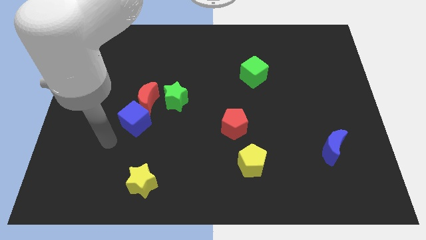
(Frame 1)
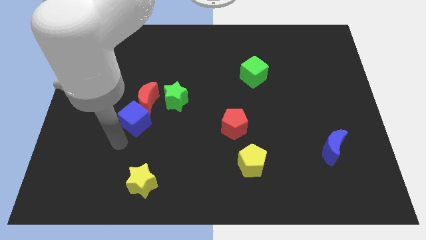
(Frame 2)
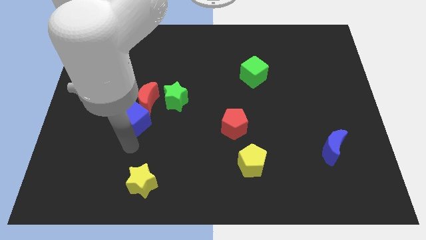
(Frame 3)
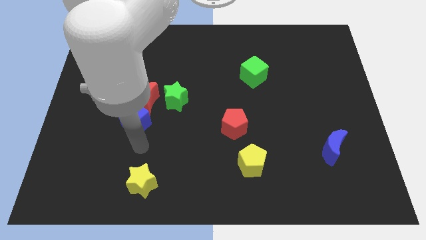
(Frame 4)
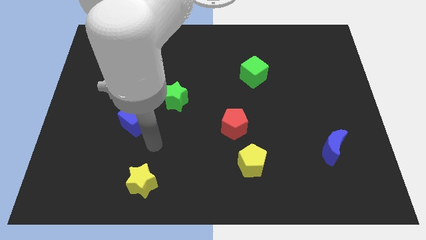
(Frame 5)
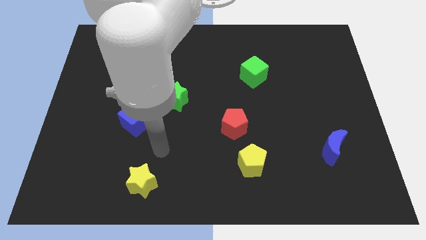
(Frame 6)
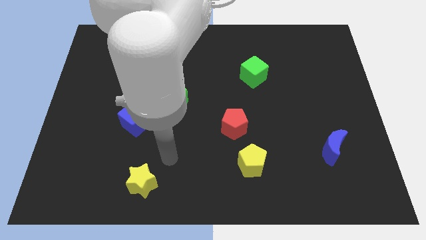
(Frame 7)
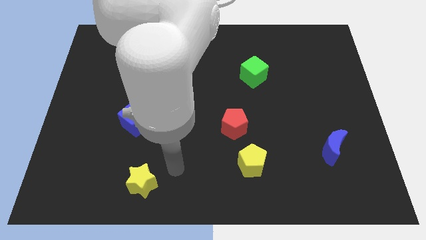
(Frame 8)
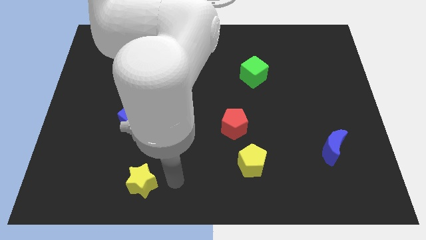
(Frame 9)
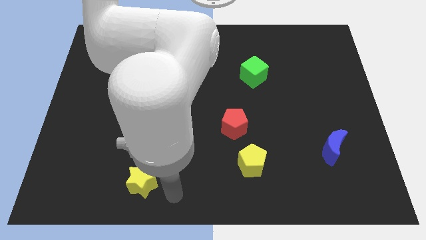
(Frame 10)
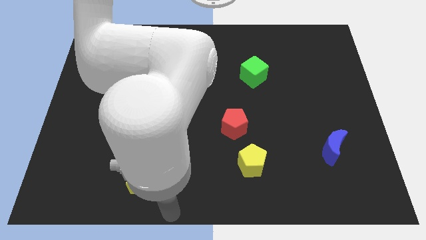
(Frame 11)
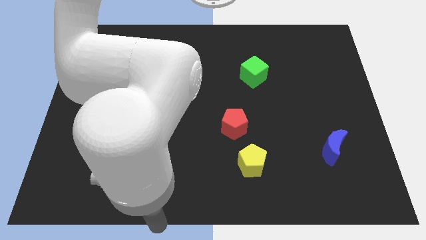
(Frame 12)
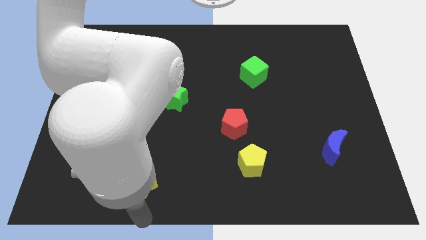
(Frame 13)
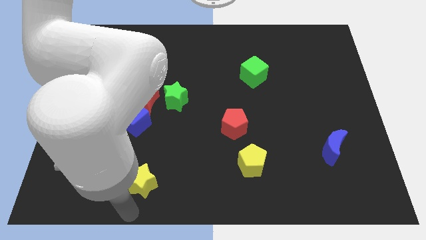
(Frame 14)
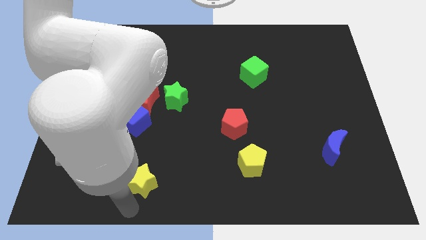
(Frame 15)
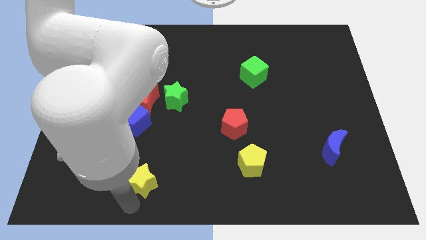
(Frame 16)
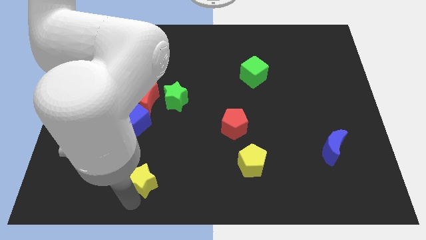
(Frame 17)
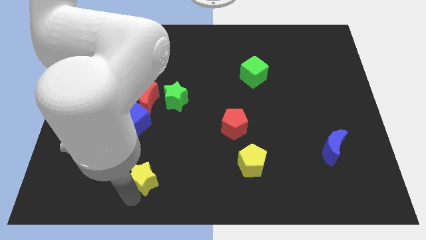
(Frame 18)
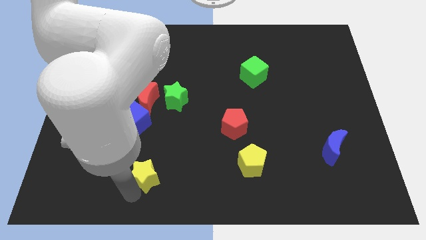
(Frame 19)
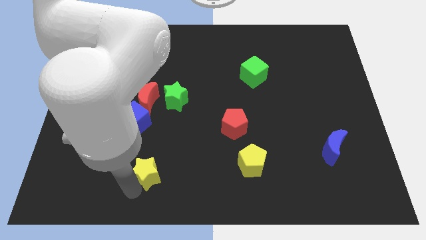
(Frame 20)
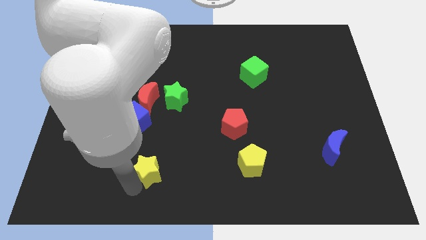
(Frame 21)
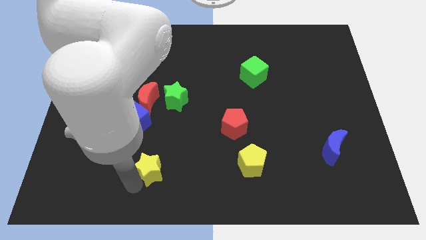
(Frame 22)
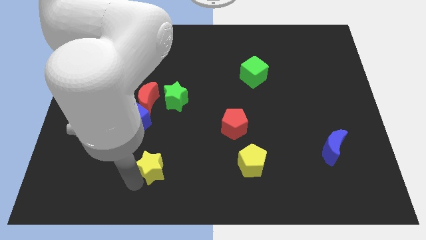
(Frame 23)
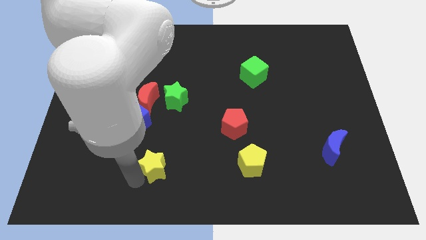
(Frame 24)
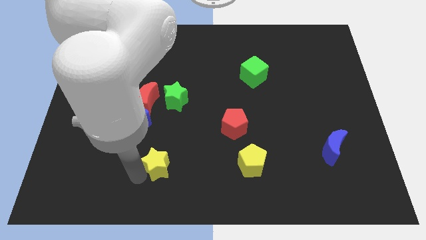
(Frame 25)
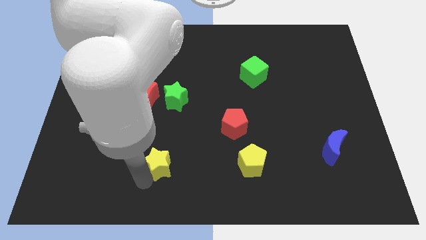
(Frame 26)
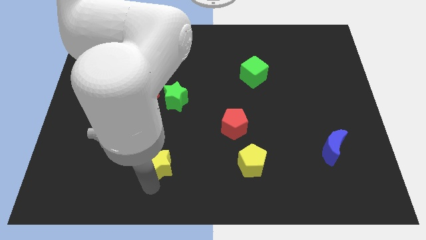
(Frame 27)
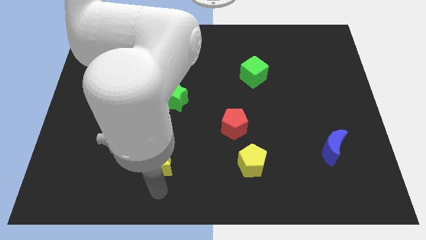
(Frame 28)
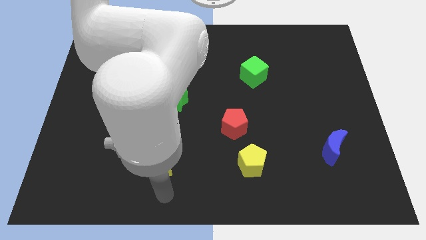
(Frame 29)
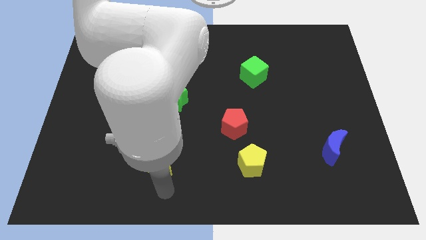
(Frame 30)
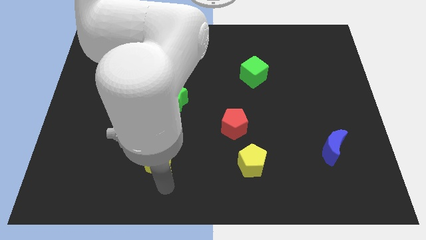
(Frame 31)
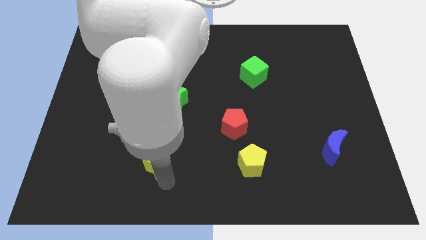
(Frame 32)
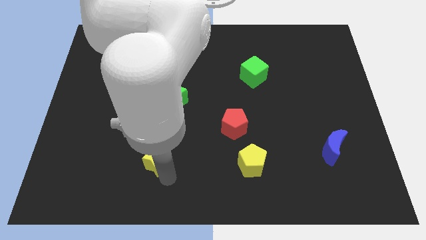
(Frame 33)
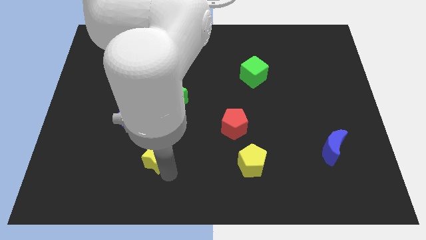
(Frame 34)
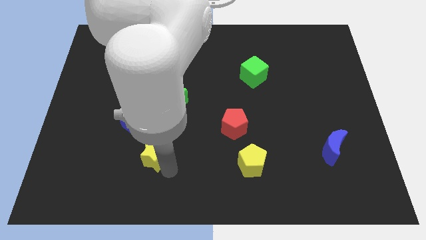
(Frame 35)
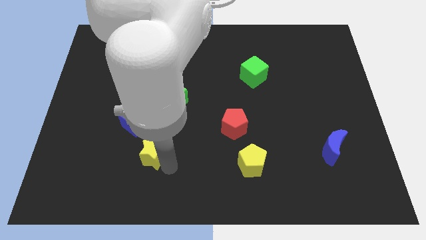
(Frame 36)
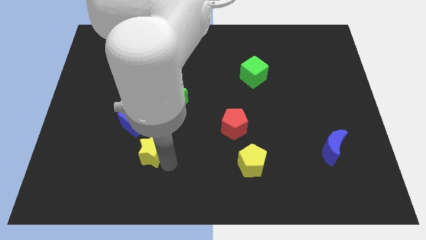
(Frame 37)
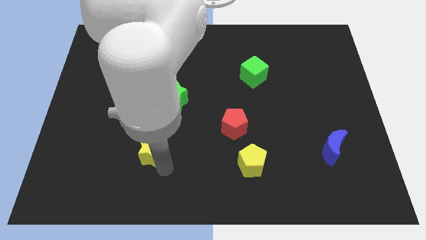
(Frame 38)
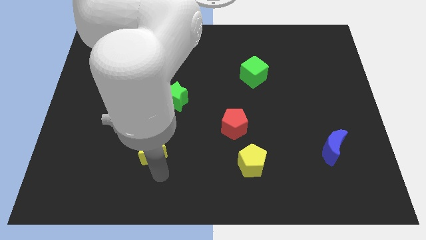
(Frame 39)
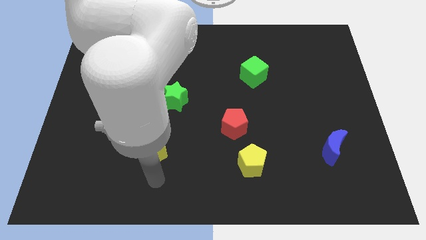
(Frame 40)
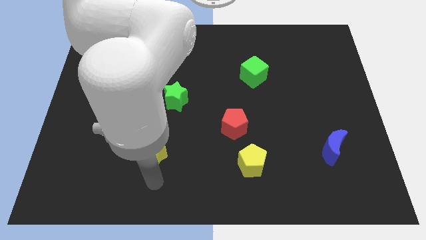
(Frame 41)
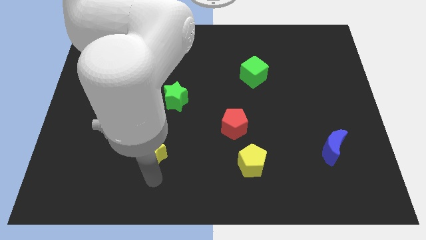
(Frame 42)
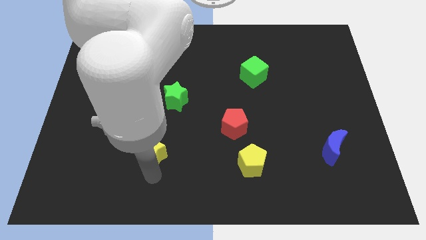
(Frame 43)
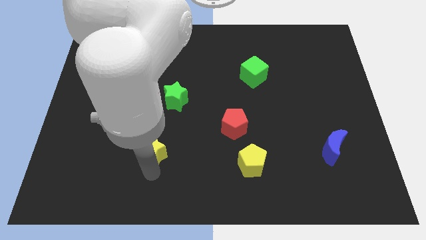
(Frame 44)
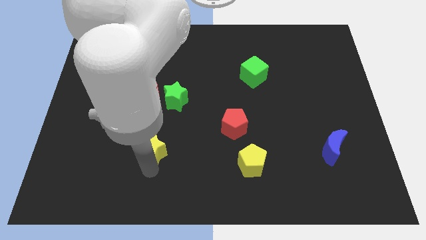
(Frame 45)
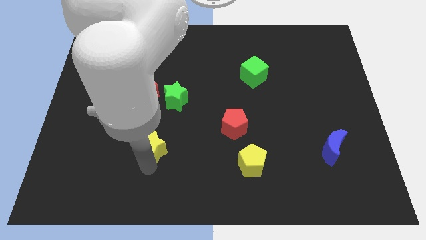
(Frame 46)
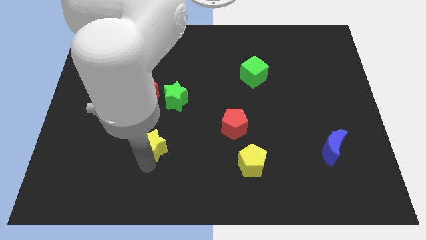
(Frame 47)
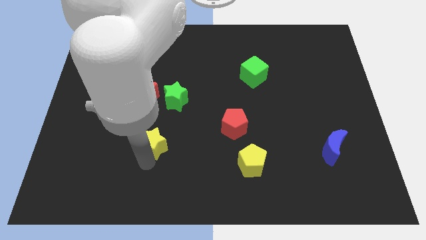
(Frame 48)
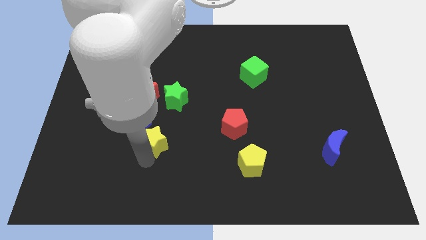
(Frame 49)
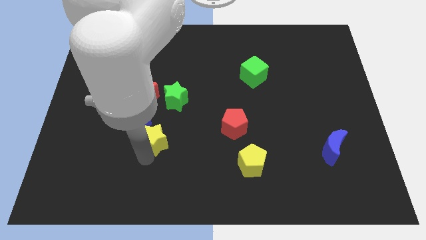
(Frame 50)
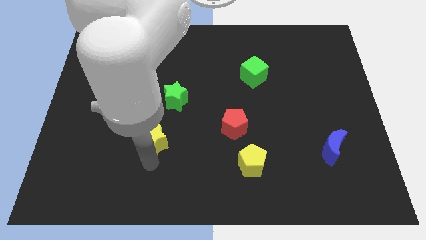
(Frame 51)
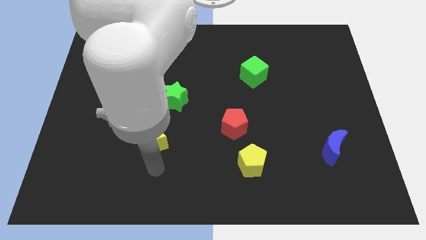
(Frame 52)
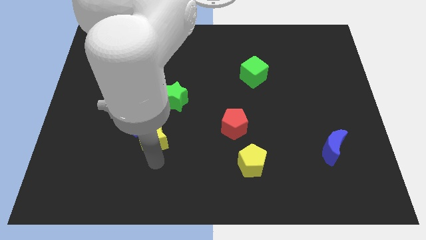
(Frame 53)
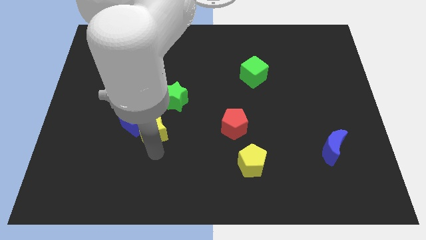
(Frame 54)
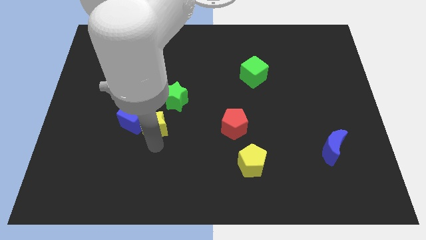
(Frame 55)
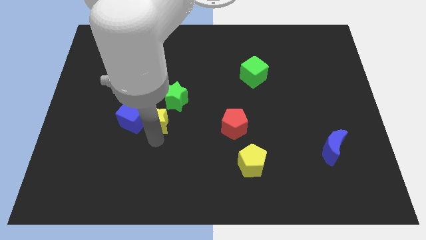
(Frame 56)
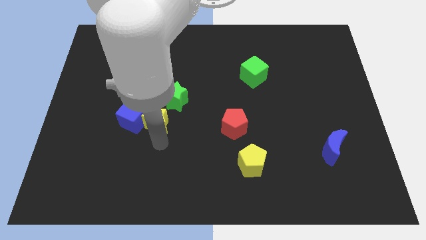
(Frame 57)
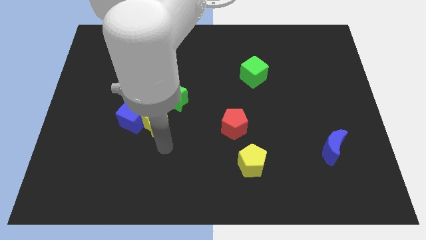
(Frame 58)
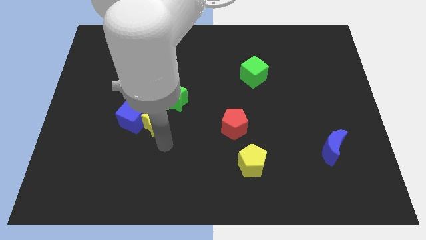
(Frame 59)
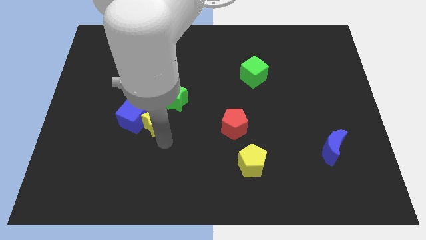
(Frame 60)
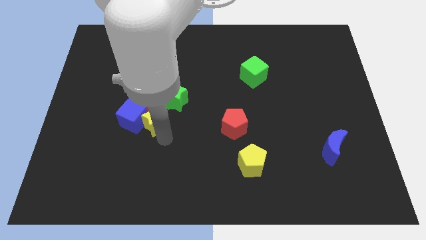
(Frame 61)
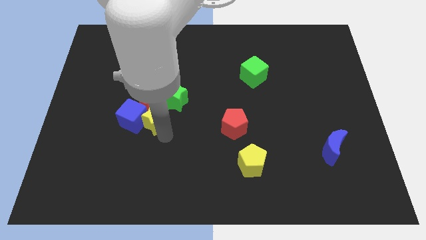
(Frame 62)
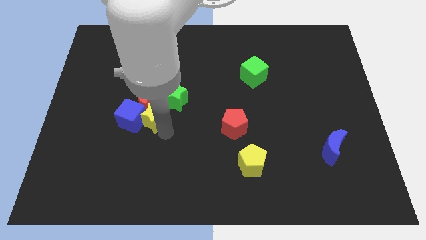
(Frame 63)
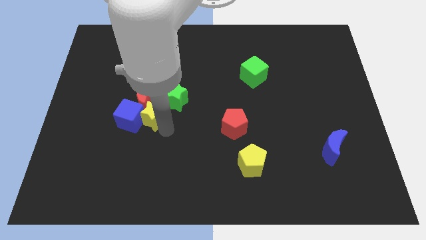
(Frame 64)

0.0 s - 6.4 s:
slide the yellow star close to the red moon

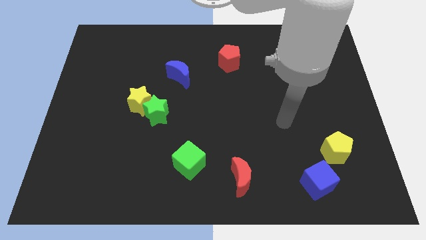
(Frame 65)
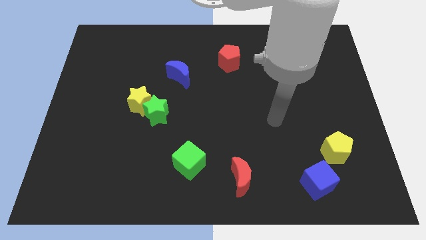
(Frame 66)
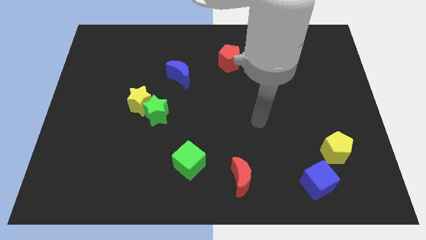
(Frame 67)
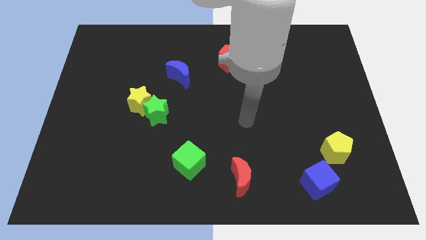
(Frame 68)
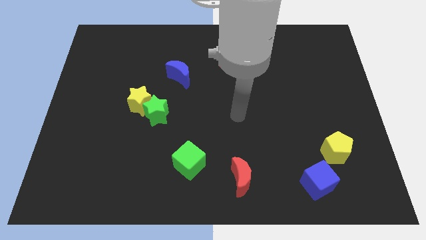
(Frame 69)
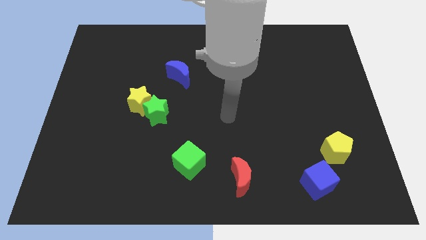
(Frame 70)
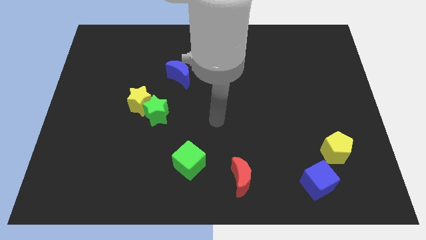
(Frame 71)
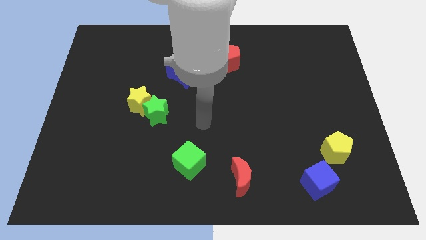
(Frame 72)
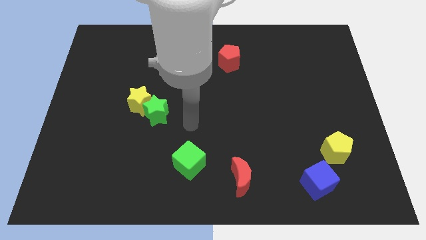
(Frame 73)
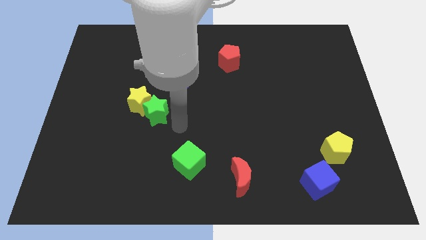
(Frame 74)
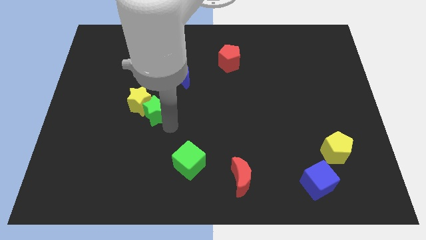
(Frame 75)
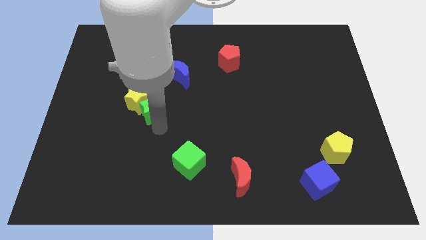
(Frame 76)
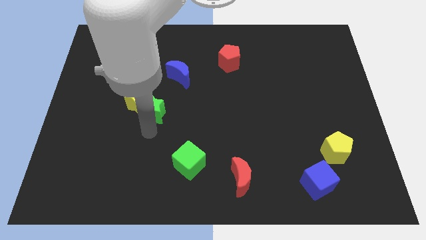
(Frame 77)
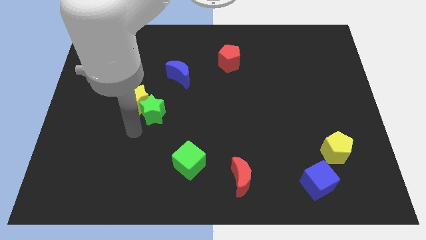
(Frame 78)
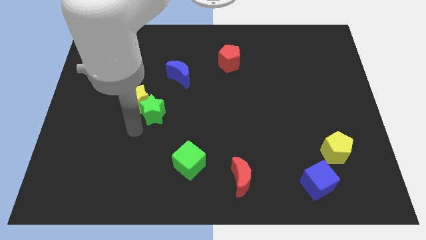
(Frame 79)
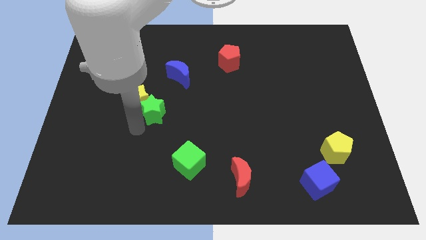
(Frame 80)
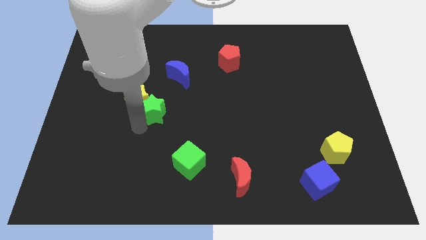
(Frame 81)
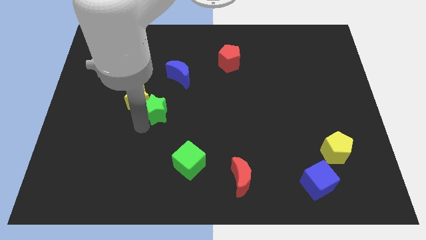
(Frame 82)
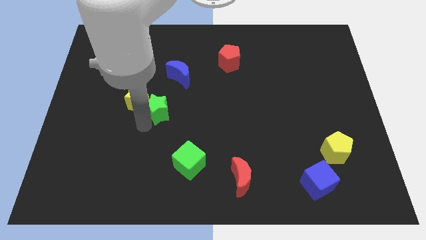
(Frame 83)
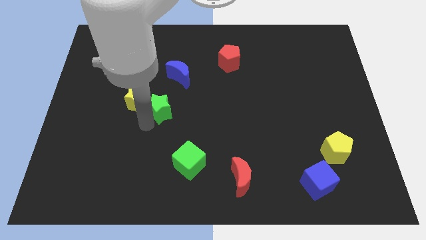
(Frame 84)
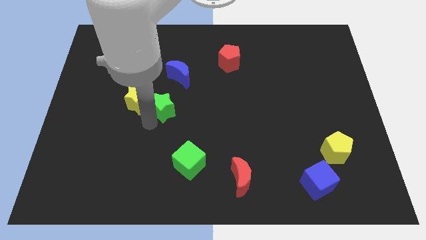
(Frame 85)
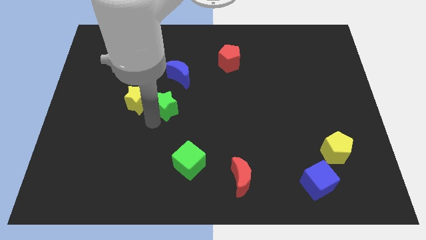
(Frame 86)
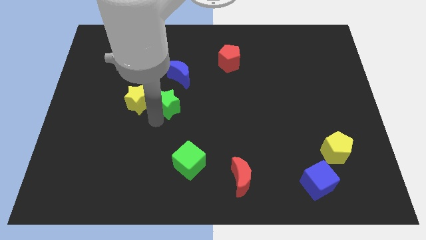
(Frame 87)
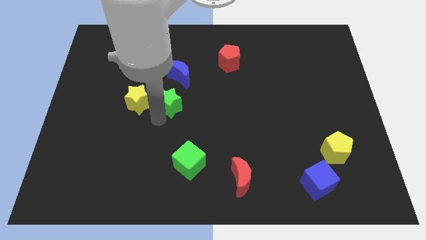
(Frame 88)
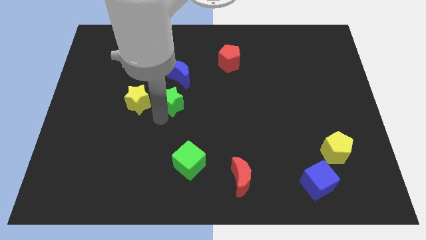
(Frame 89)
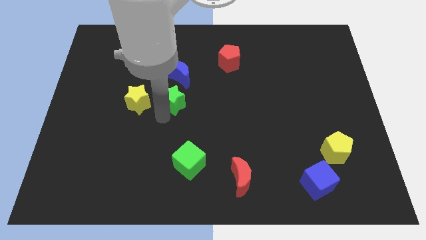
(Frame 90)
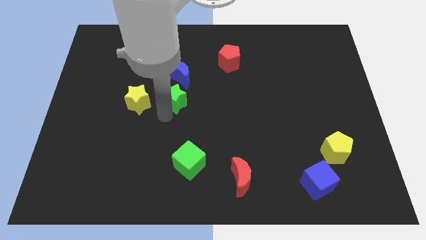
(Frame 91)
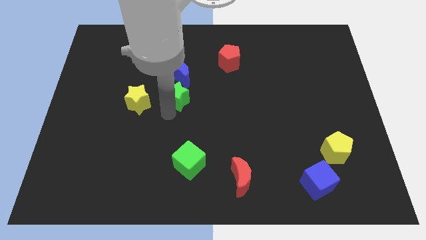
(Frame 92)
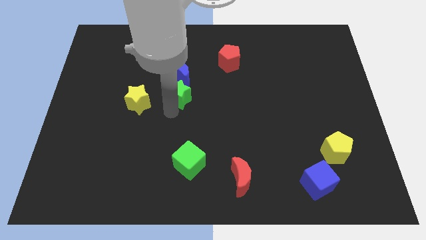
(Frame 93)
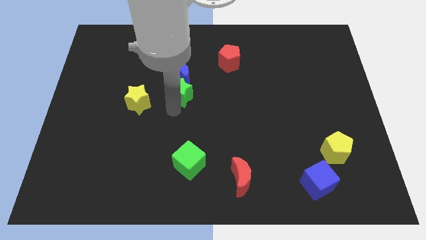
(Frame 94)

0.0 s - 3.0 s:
slide the green star to the blue moon
